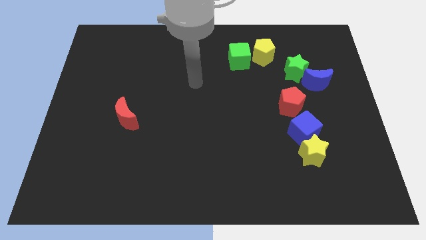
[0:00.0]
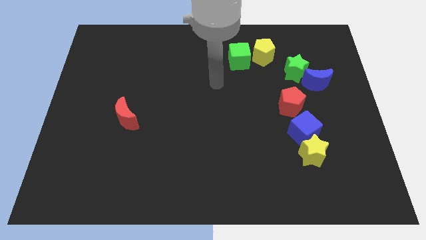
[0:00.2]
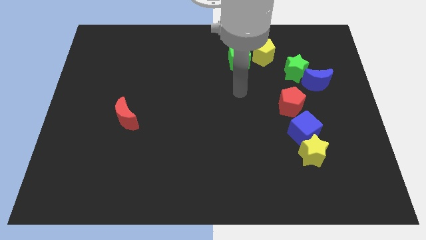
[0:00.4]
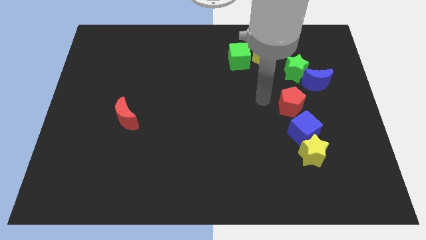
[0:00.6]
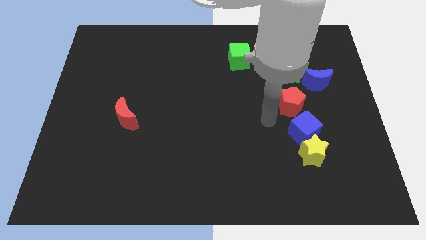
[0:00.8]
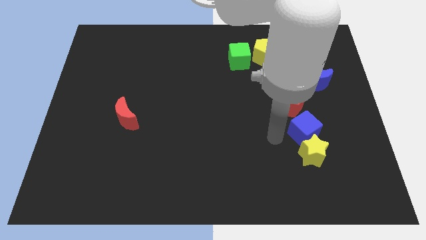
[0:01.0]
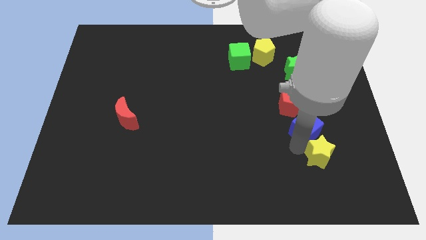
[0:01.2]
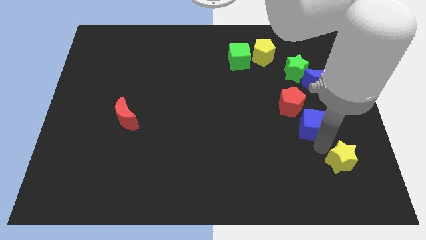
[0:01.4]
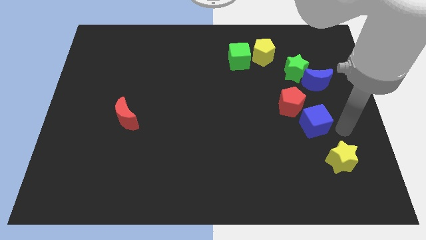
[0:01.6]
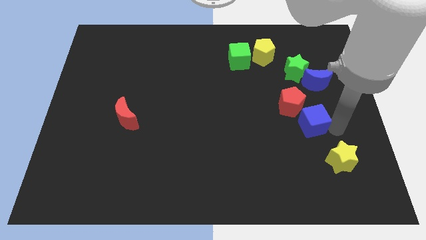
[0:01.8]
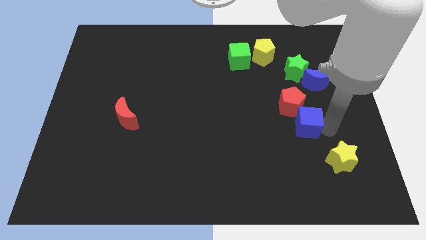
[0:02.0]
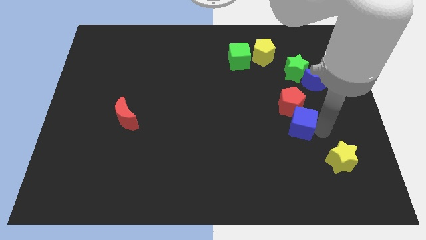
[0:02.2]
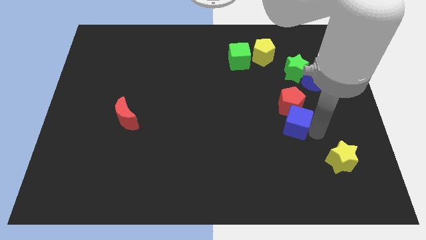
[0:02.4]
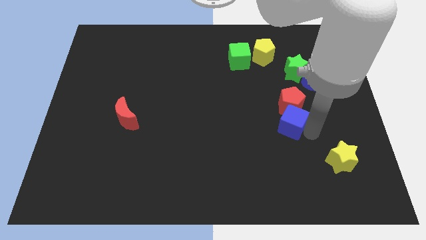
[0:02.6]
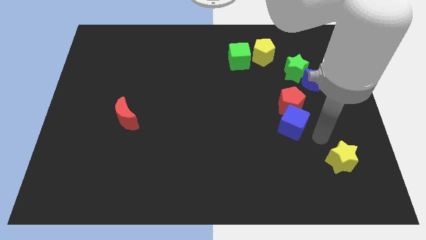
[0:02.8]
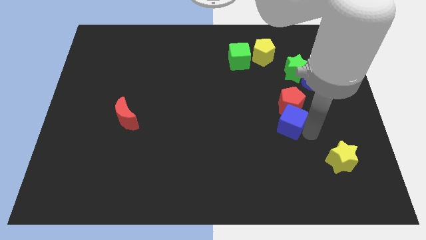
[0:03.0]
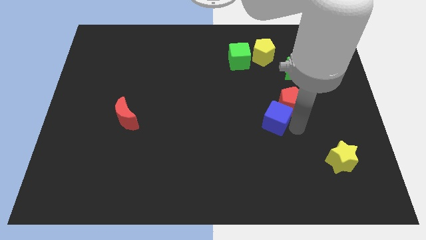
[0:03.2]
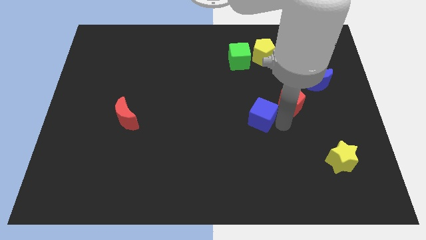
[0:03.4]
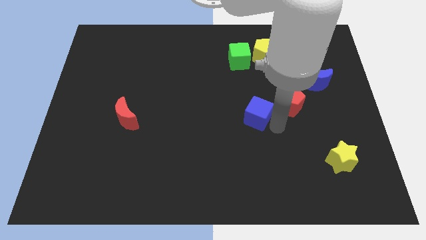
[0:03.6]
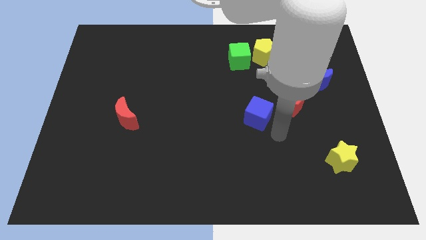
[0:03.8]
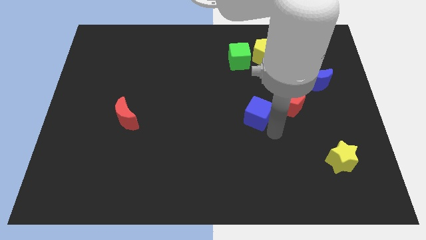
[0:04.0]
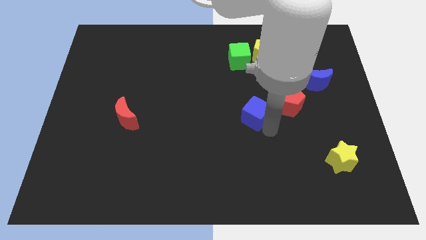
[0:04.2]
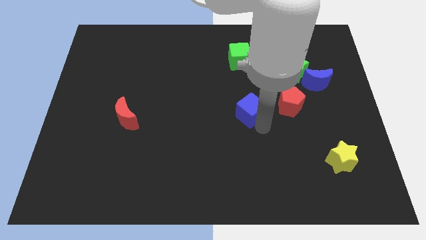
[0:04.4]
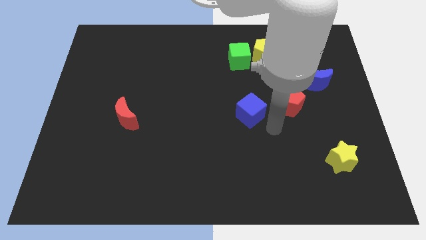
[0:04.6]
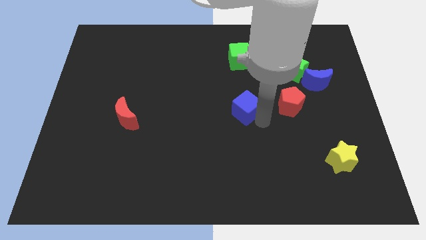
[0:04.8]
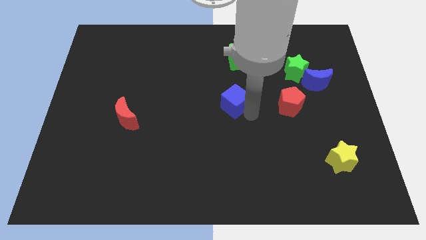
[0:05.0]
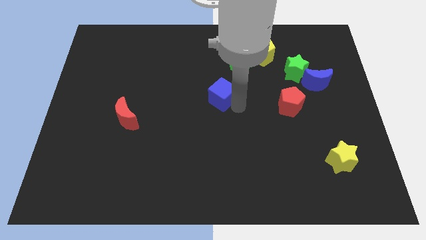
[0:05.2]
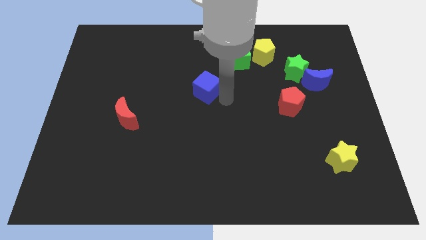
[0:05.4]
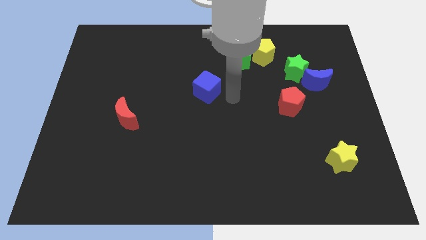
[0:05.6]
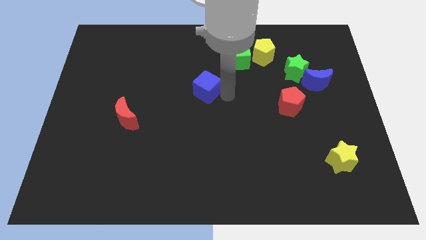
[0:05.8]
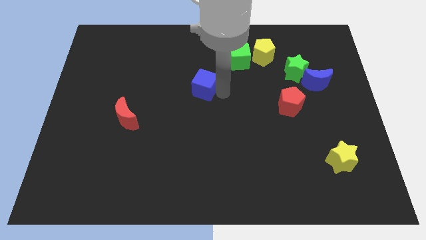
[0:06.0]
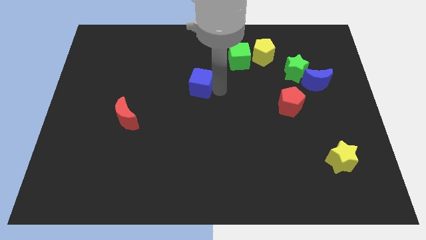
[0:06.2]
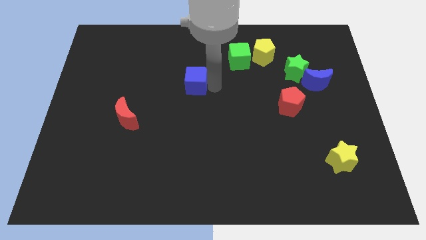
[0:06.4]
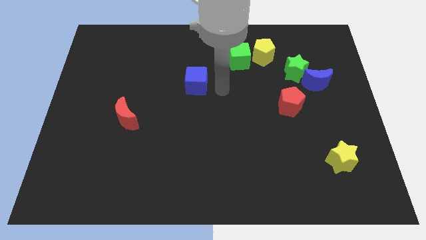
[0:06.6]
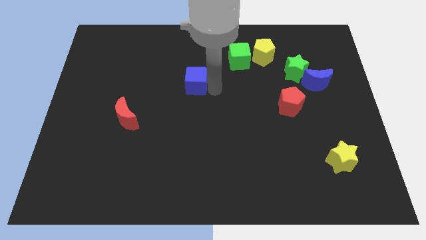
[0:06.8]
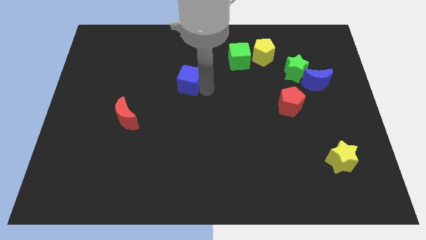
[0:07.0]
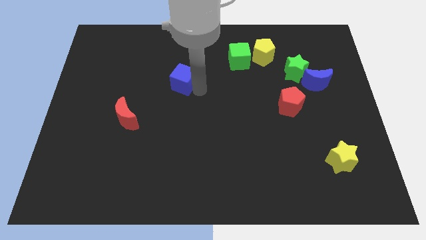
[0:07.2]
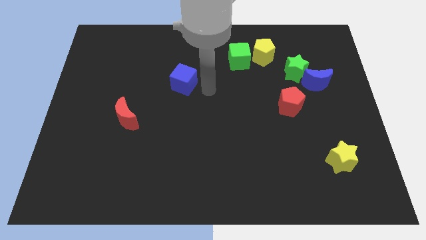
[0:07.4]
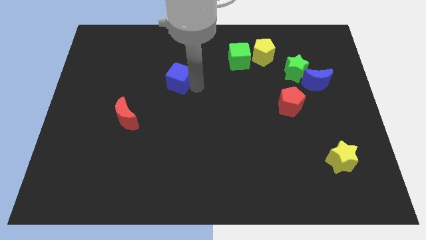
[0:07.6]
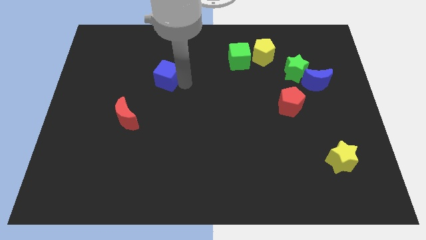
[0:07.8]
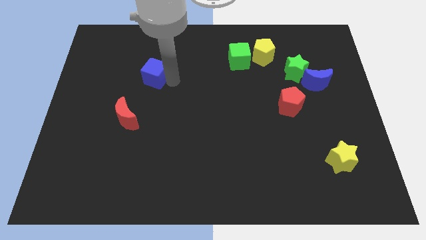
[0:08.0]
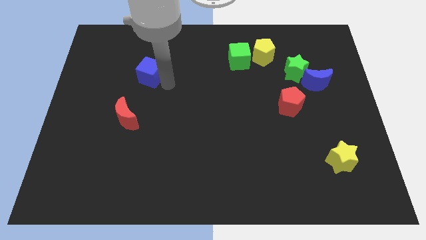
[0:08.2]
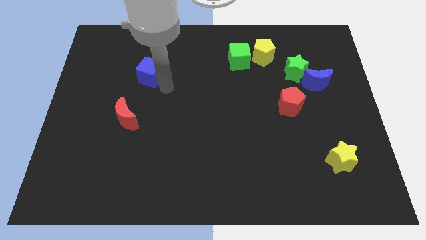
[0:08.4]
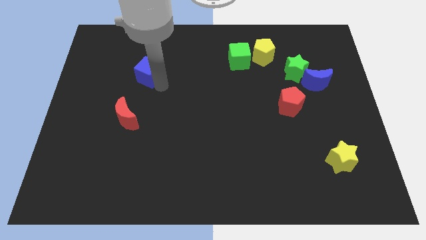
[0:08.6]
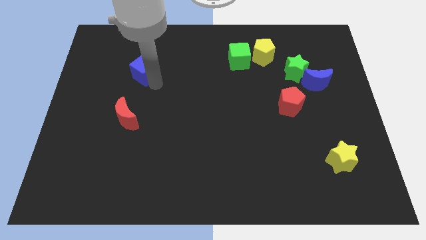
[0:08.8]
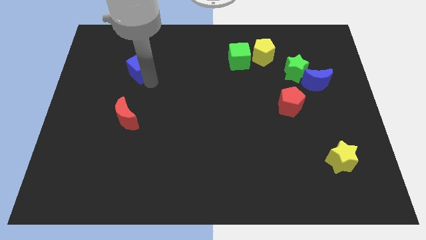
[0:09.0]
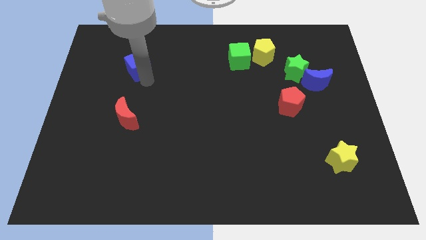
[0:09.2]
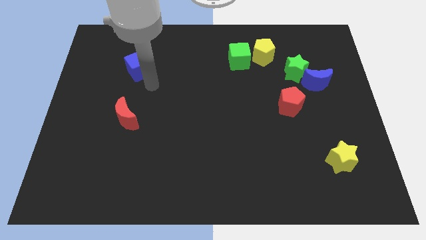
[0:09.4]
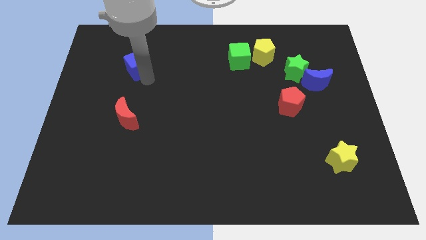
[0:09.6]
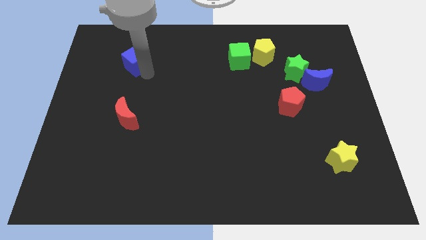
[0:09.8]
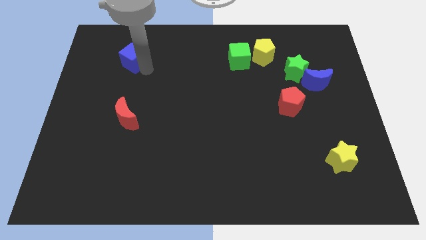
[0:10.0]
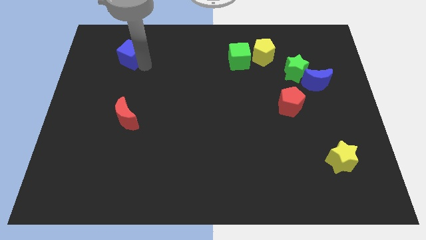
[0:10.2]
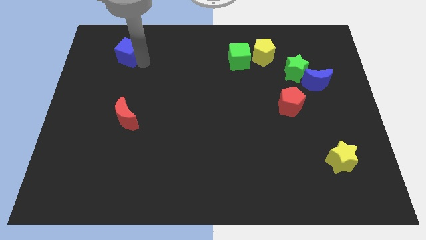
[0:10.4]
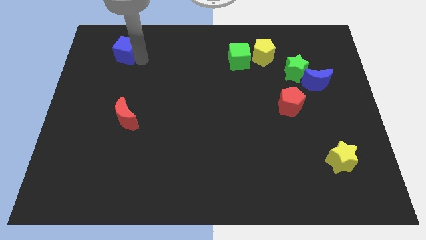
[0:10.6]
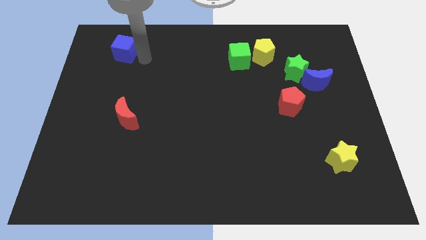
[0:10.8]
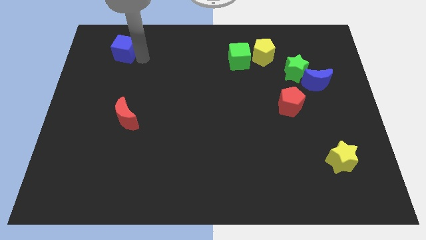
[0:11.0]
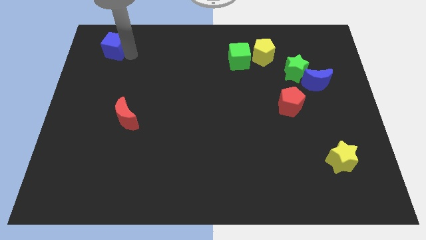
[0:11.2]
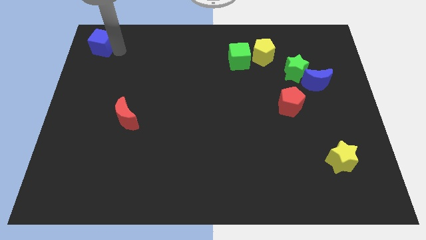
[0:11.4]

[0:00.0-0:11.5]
move the blue cube to the upper left corner

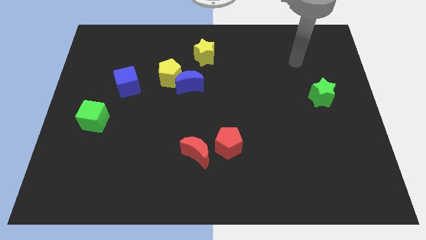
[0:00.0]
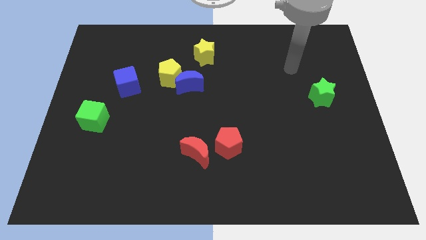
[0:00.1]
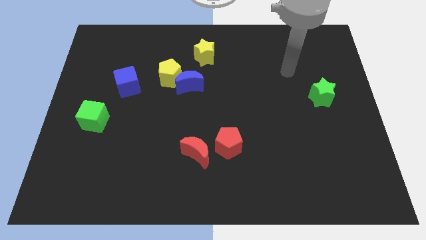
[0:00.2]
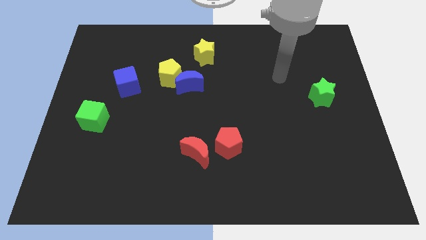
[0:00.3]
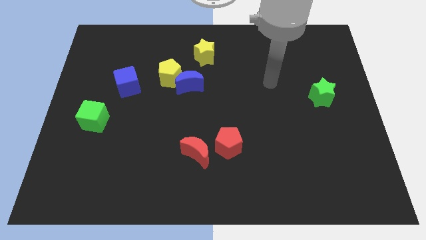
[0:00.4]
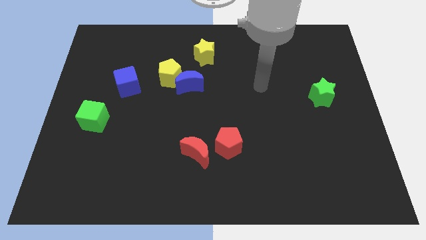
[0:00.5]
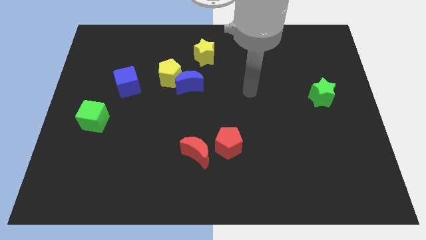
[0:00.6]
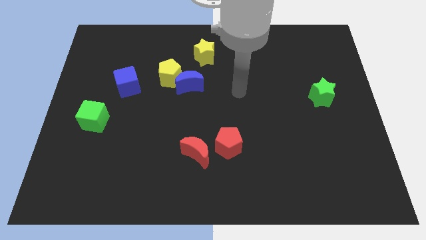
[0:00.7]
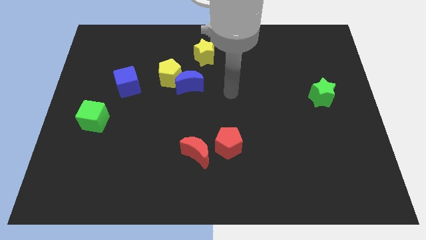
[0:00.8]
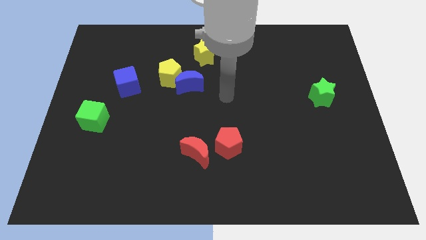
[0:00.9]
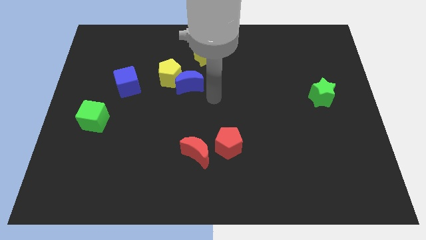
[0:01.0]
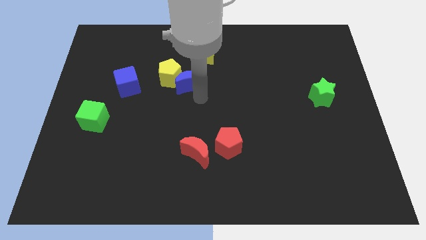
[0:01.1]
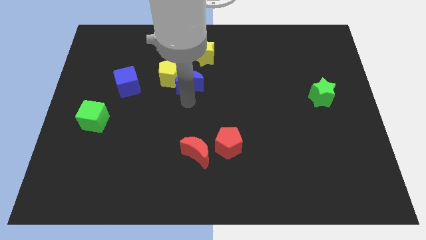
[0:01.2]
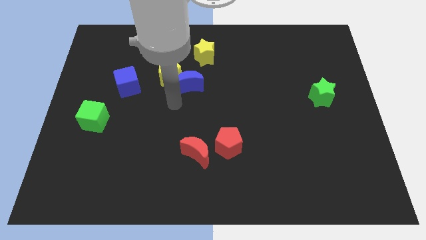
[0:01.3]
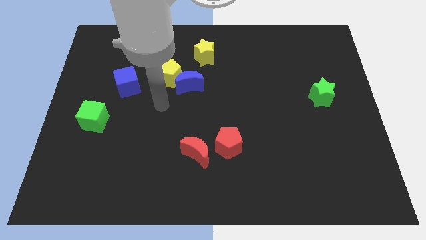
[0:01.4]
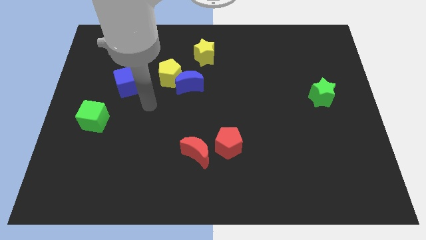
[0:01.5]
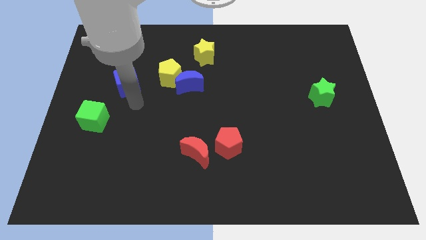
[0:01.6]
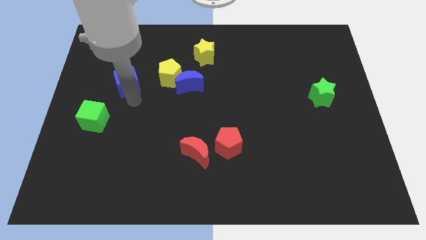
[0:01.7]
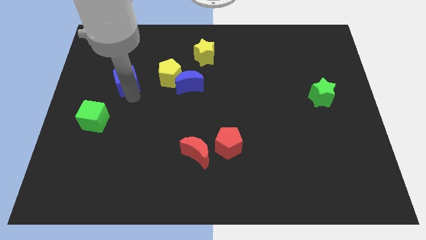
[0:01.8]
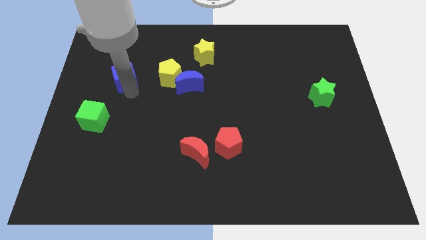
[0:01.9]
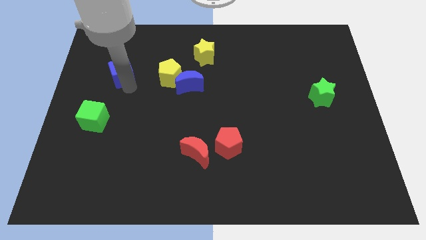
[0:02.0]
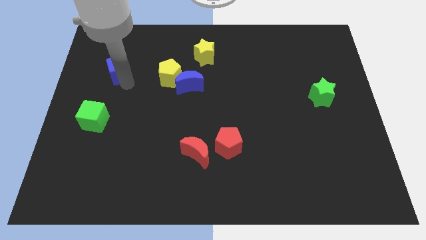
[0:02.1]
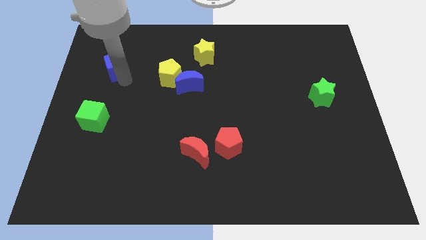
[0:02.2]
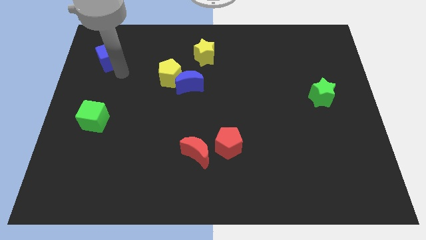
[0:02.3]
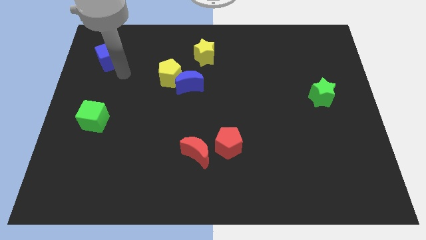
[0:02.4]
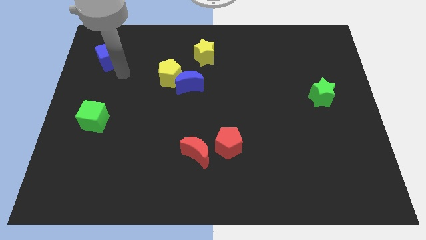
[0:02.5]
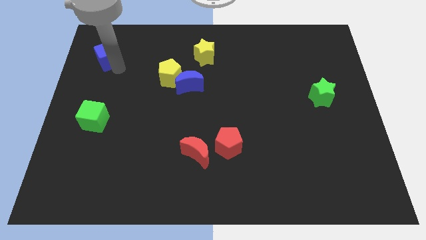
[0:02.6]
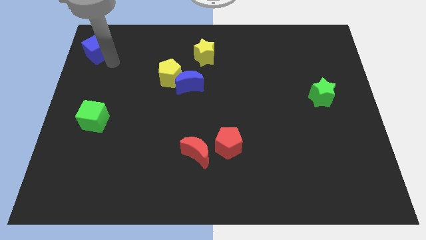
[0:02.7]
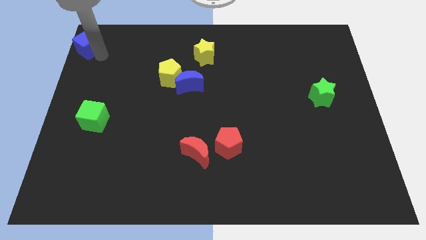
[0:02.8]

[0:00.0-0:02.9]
push the blue cube to the top left of the board
